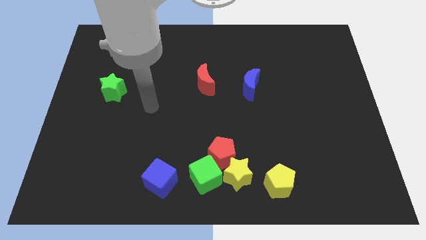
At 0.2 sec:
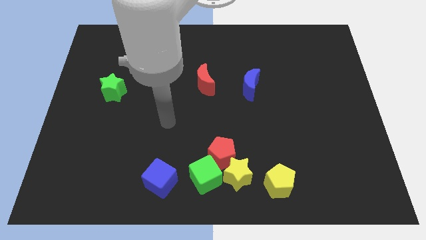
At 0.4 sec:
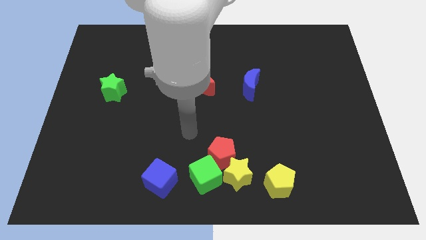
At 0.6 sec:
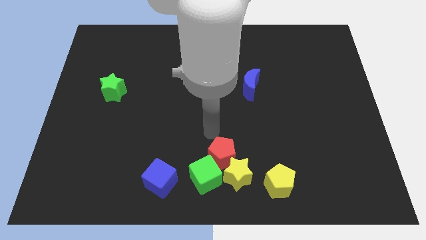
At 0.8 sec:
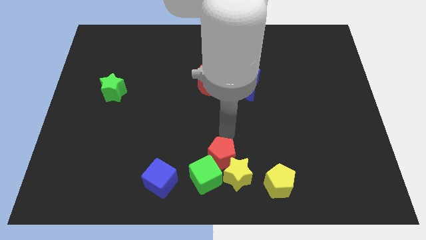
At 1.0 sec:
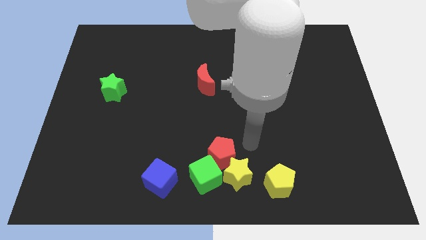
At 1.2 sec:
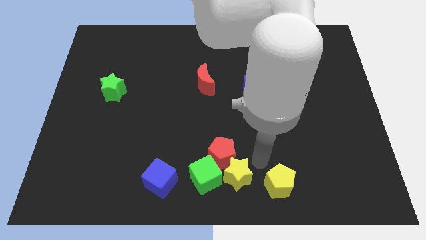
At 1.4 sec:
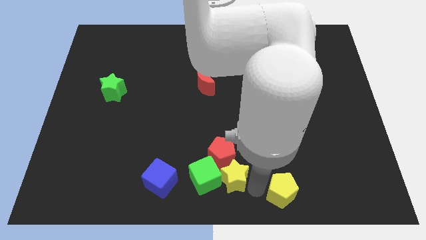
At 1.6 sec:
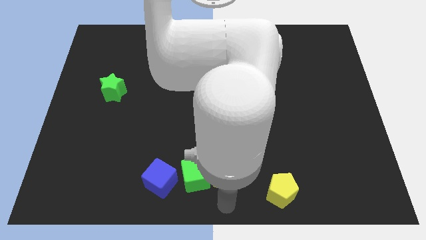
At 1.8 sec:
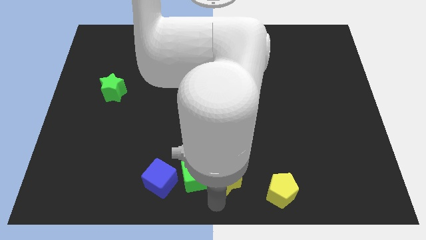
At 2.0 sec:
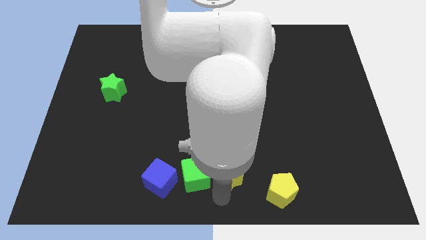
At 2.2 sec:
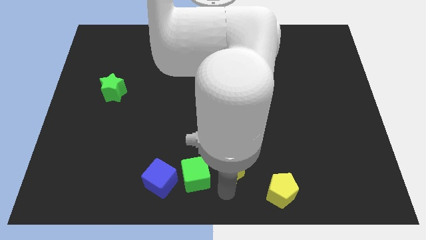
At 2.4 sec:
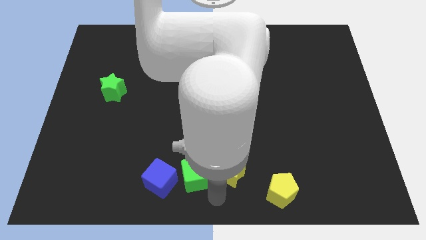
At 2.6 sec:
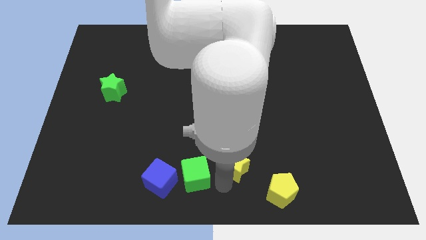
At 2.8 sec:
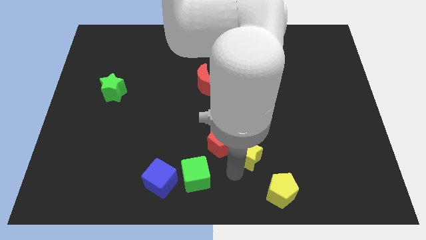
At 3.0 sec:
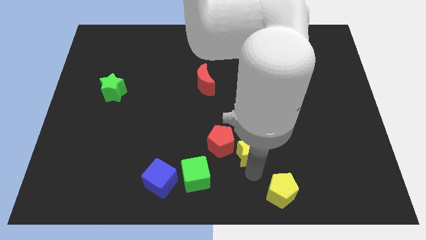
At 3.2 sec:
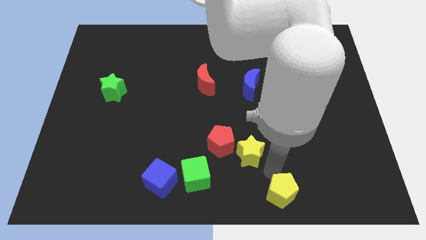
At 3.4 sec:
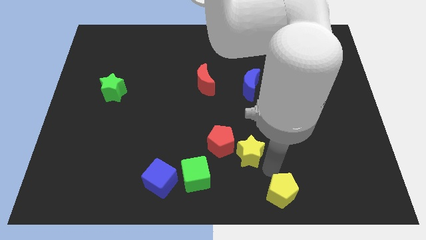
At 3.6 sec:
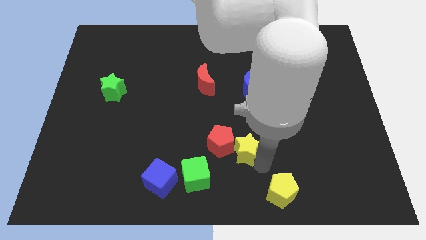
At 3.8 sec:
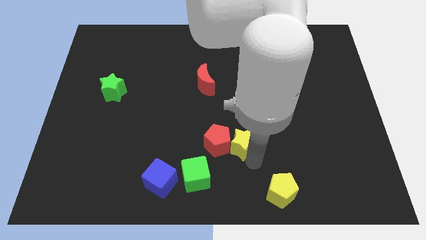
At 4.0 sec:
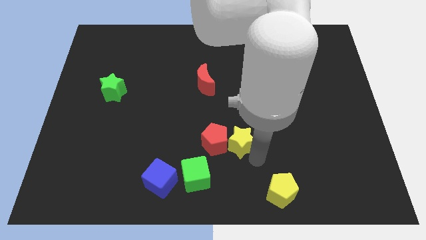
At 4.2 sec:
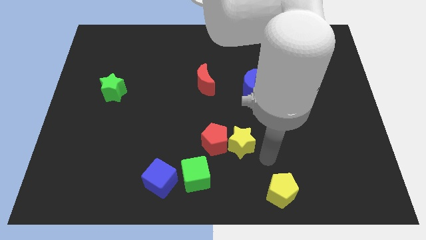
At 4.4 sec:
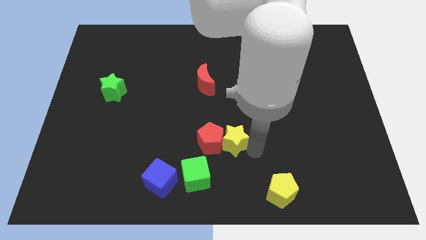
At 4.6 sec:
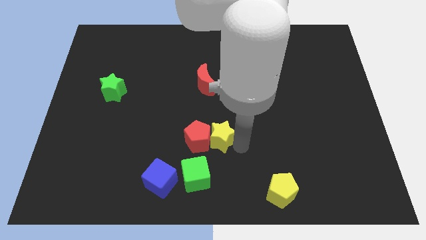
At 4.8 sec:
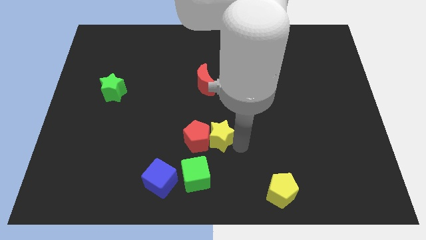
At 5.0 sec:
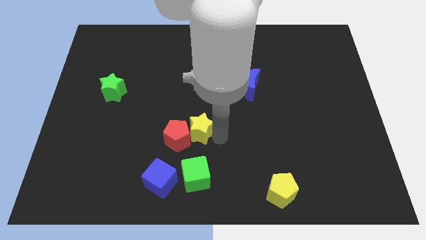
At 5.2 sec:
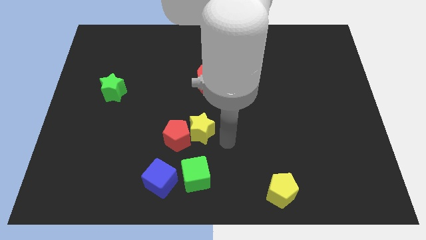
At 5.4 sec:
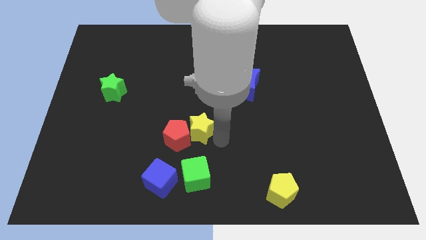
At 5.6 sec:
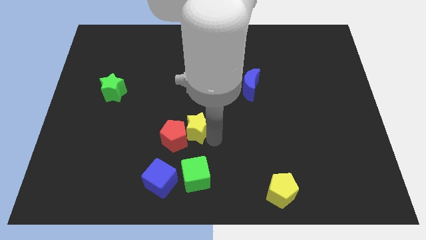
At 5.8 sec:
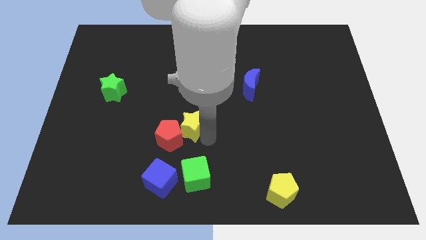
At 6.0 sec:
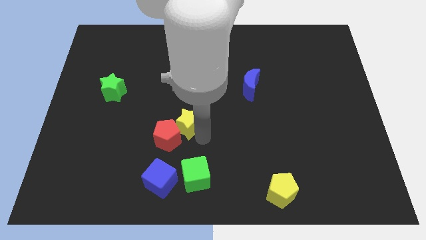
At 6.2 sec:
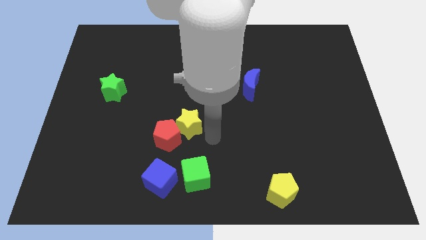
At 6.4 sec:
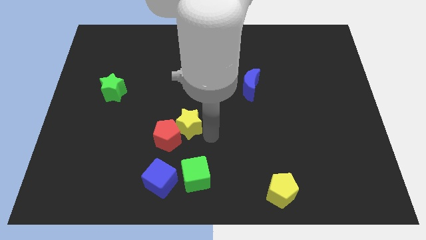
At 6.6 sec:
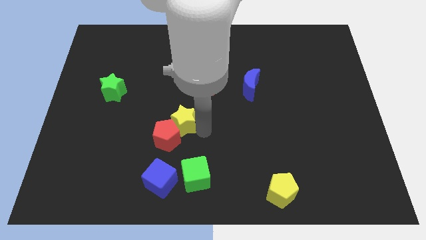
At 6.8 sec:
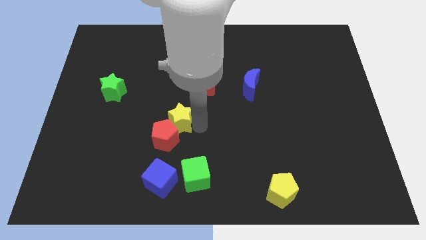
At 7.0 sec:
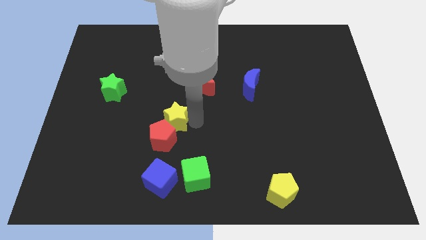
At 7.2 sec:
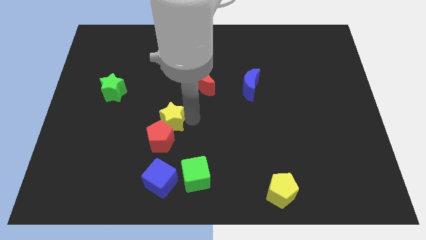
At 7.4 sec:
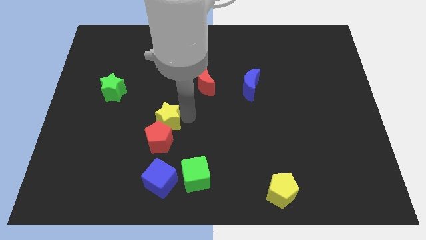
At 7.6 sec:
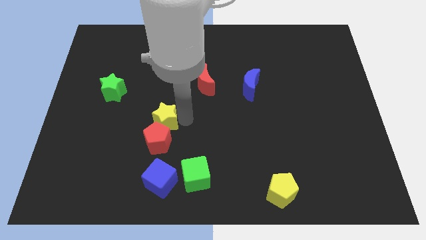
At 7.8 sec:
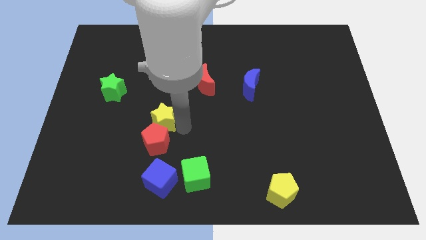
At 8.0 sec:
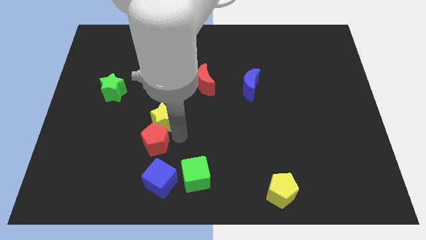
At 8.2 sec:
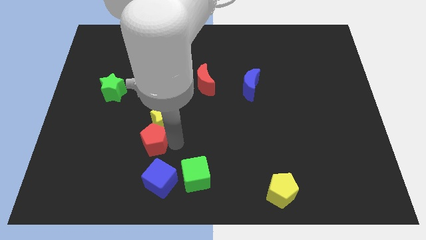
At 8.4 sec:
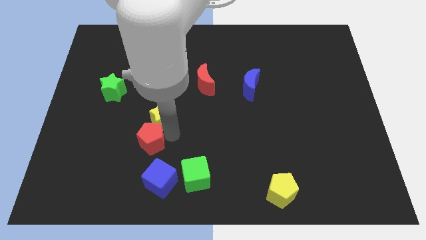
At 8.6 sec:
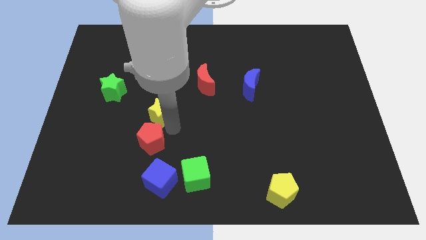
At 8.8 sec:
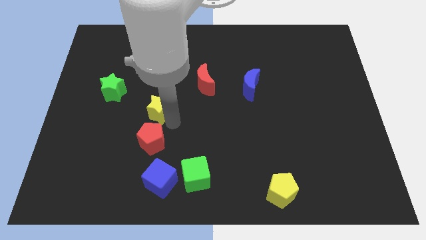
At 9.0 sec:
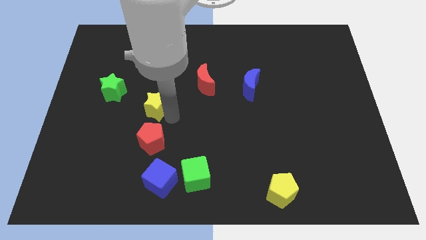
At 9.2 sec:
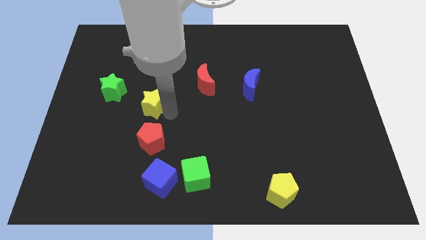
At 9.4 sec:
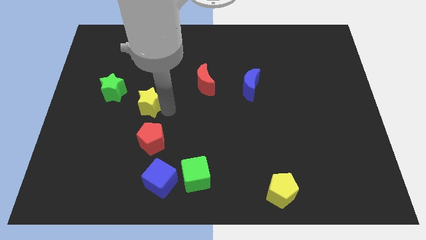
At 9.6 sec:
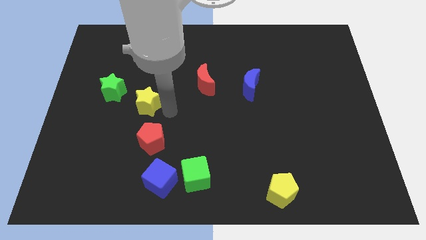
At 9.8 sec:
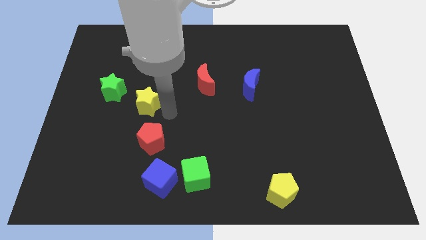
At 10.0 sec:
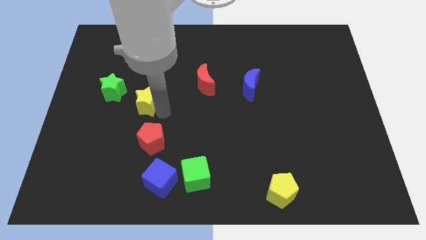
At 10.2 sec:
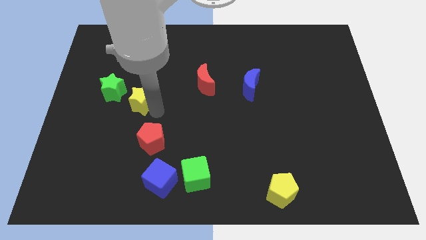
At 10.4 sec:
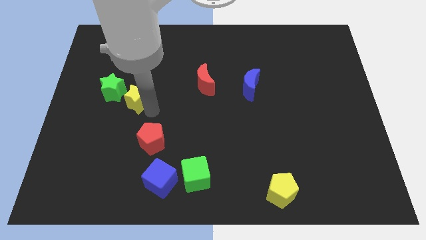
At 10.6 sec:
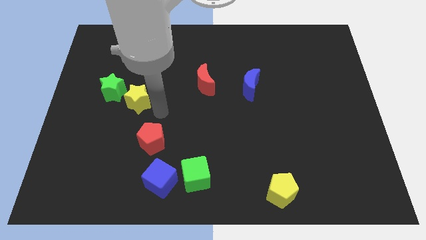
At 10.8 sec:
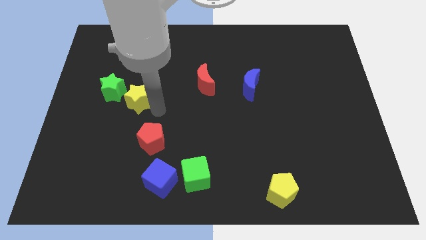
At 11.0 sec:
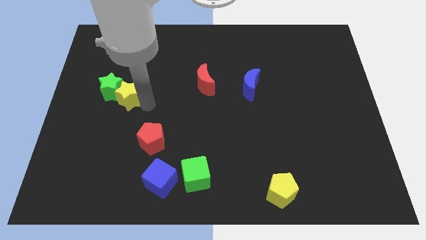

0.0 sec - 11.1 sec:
push the yellow star next to the green star

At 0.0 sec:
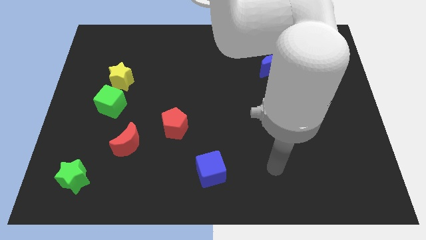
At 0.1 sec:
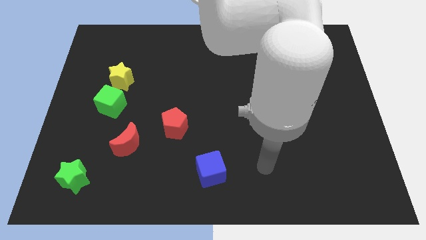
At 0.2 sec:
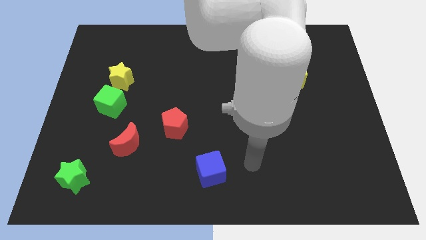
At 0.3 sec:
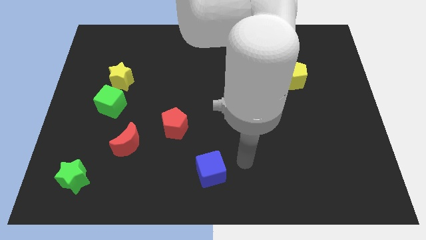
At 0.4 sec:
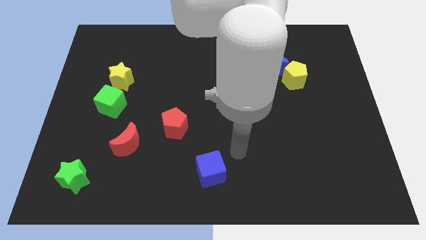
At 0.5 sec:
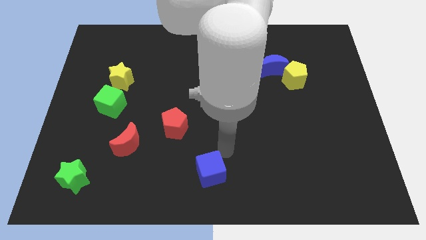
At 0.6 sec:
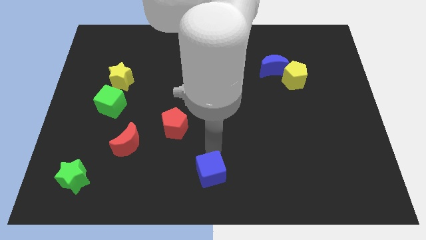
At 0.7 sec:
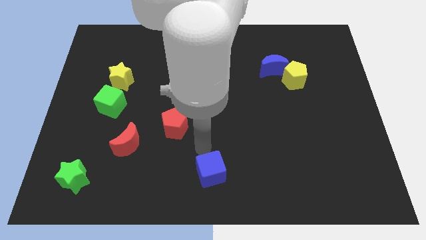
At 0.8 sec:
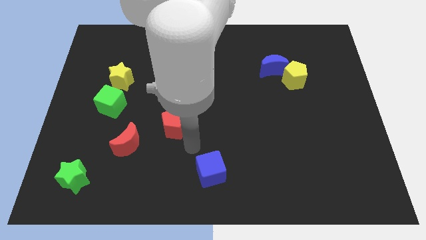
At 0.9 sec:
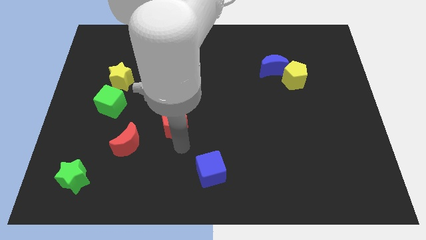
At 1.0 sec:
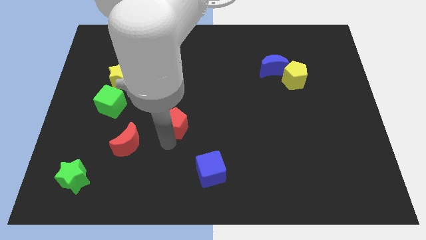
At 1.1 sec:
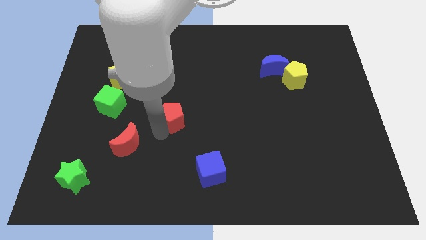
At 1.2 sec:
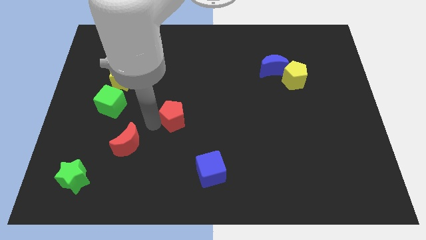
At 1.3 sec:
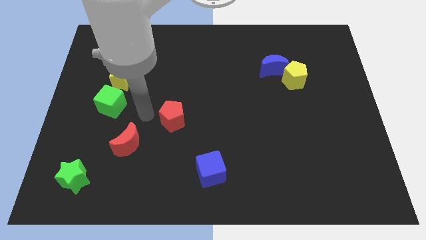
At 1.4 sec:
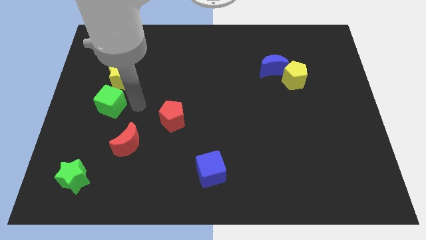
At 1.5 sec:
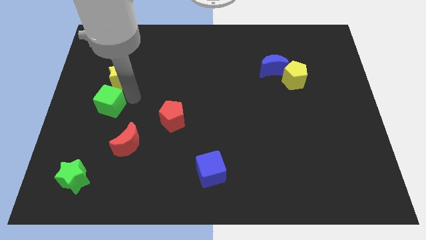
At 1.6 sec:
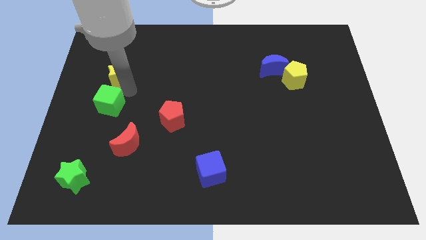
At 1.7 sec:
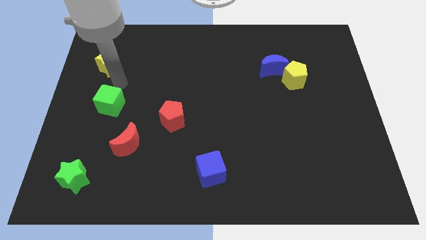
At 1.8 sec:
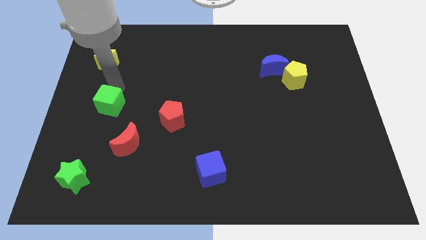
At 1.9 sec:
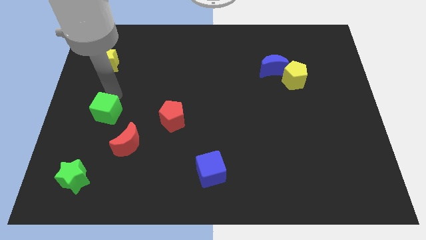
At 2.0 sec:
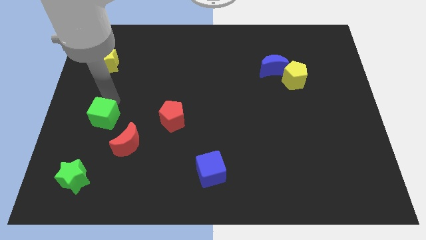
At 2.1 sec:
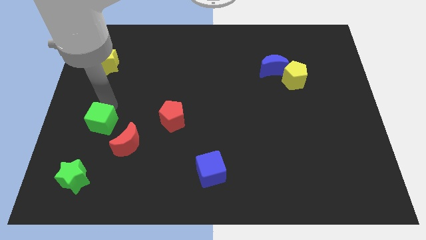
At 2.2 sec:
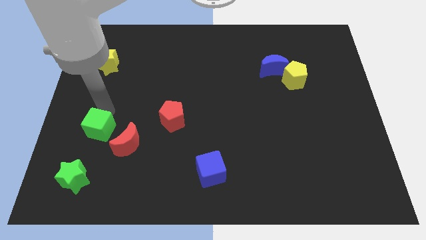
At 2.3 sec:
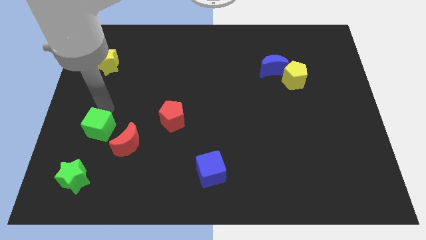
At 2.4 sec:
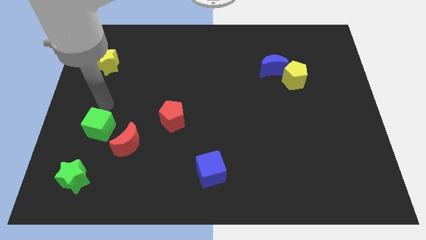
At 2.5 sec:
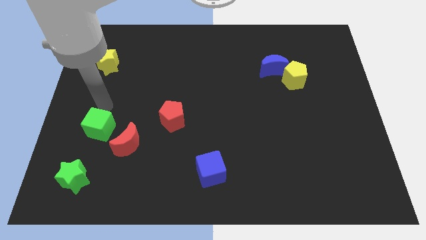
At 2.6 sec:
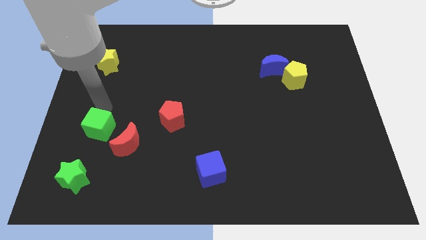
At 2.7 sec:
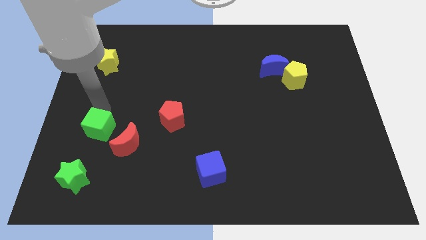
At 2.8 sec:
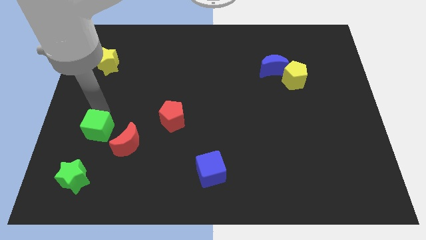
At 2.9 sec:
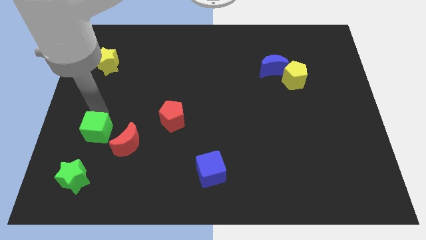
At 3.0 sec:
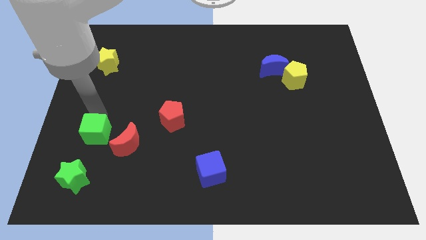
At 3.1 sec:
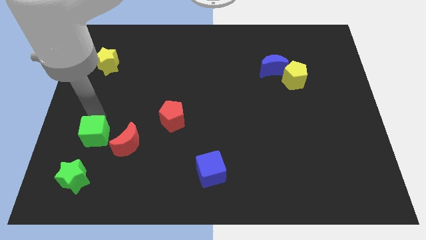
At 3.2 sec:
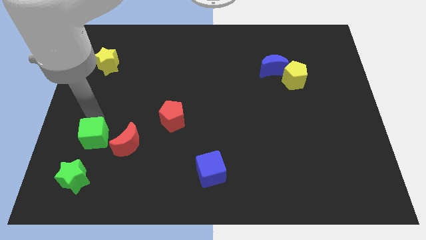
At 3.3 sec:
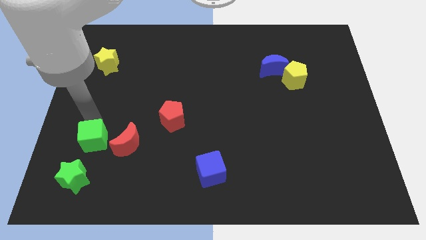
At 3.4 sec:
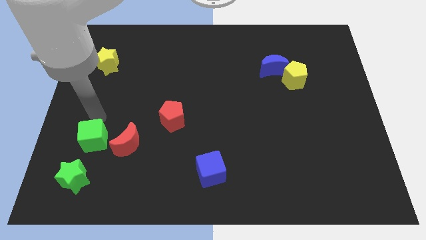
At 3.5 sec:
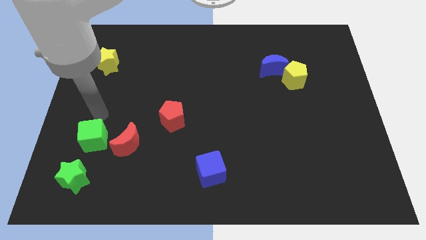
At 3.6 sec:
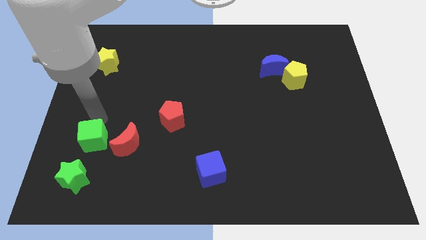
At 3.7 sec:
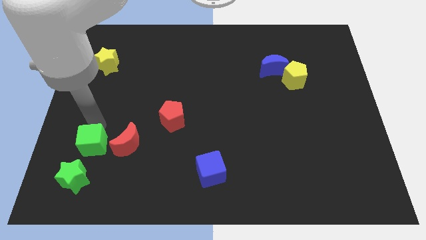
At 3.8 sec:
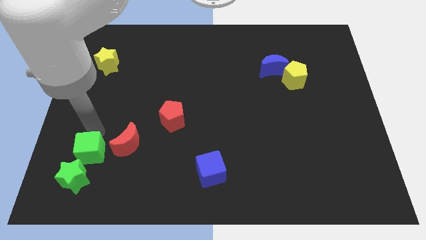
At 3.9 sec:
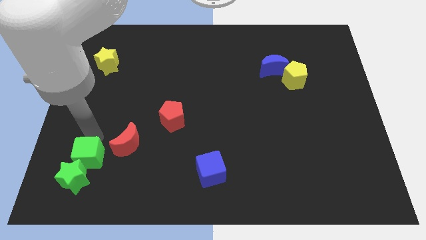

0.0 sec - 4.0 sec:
put the green cube to the green star
